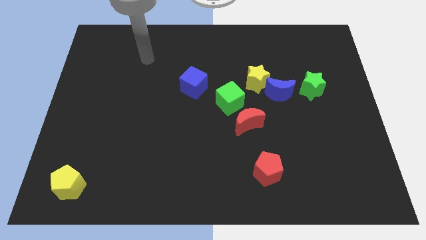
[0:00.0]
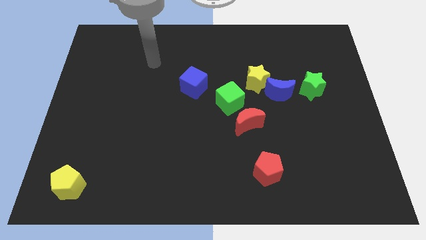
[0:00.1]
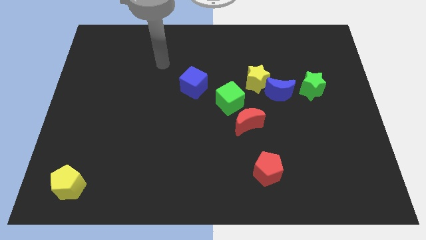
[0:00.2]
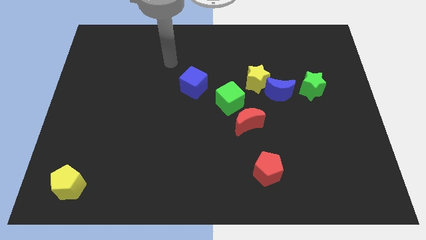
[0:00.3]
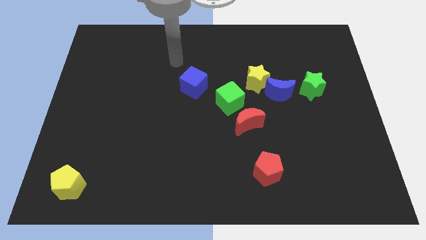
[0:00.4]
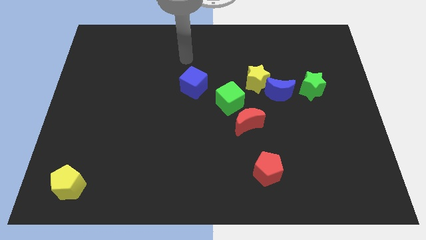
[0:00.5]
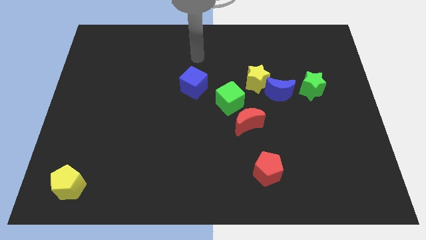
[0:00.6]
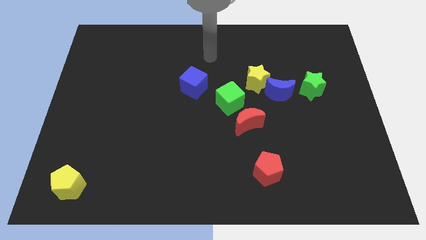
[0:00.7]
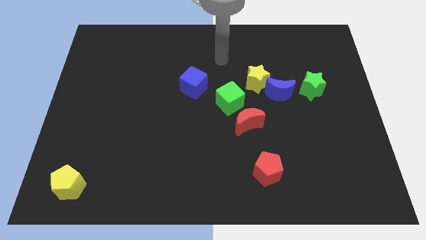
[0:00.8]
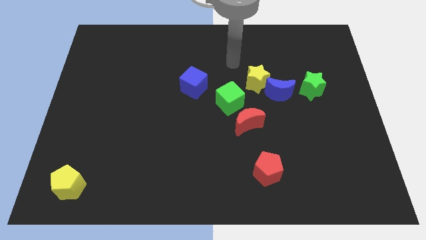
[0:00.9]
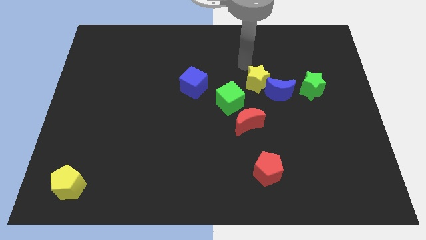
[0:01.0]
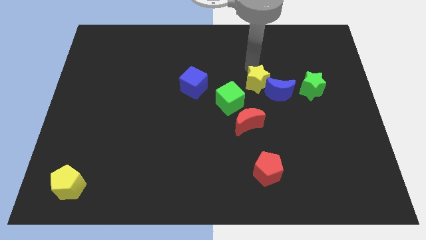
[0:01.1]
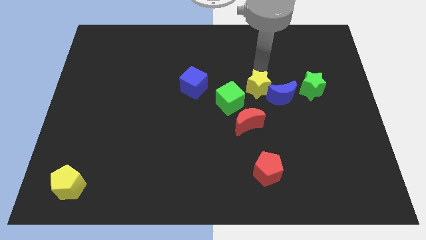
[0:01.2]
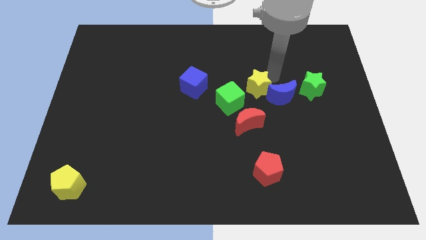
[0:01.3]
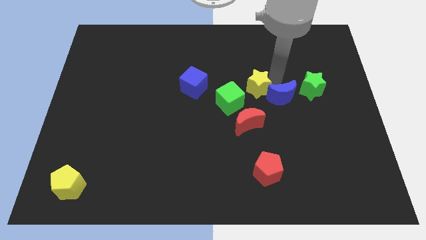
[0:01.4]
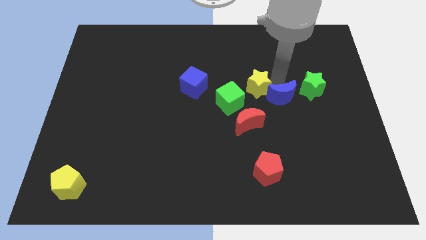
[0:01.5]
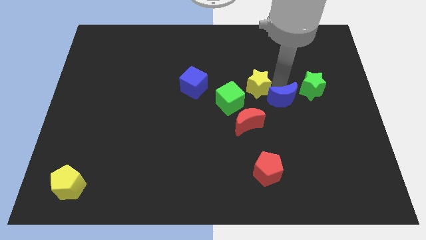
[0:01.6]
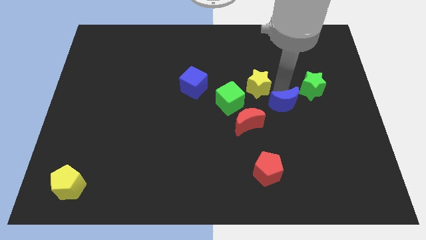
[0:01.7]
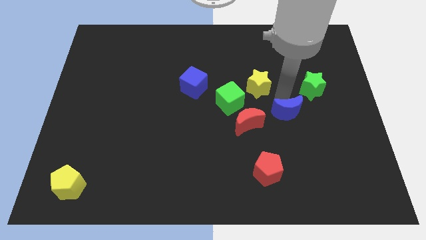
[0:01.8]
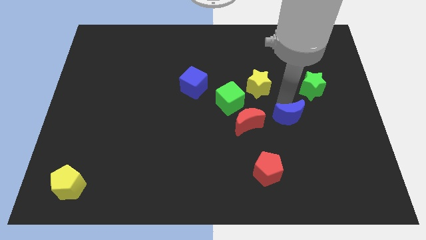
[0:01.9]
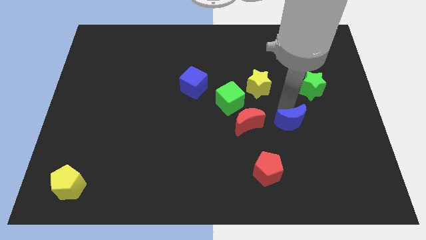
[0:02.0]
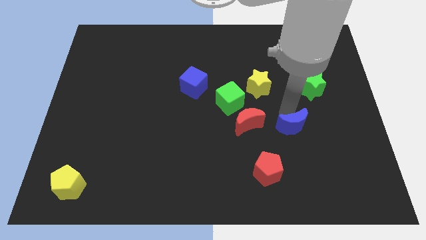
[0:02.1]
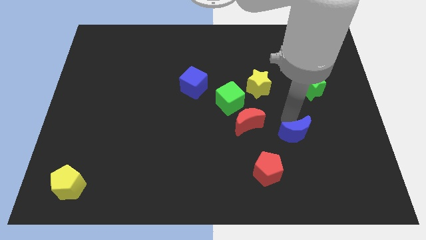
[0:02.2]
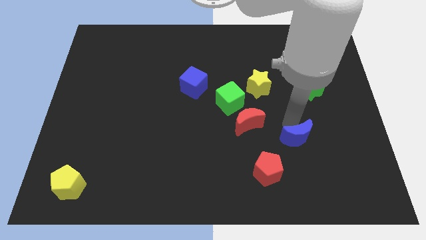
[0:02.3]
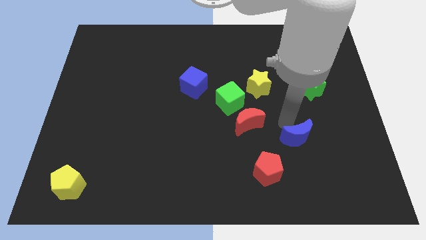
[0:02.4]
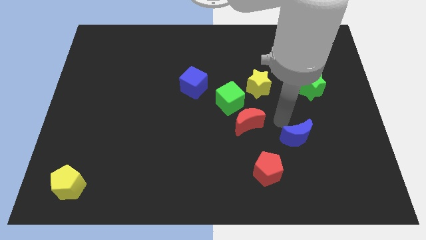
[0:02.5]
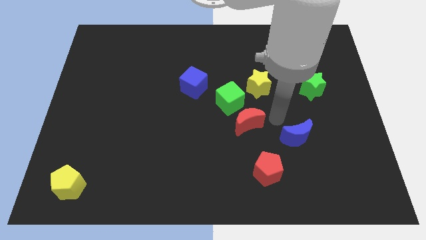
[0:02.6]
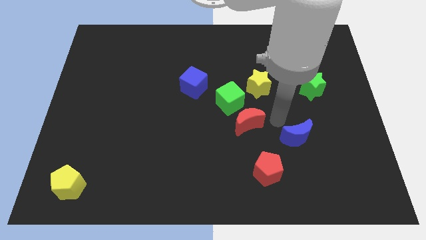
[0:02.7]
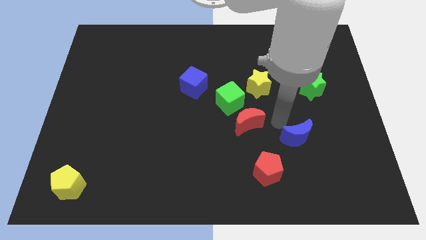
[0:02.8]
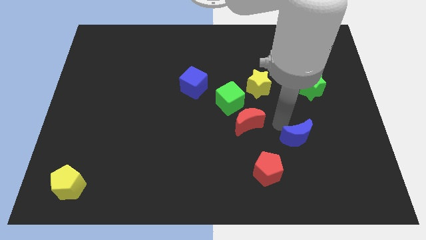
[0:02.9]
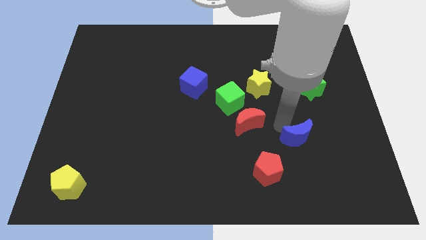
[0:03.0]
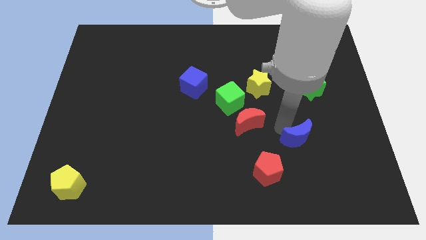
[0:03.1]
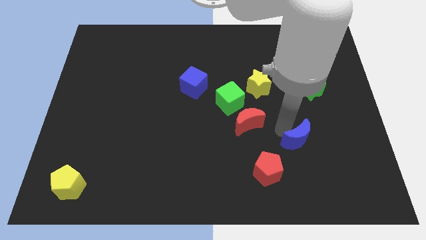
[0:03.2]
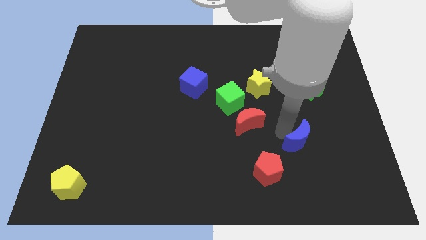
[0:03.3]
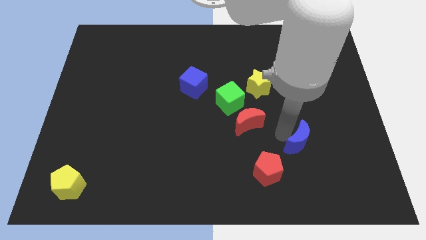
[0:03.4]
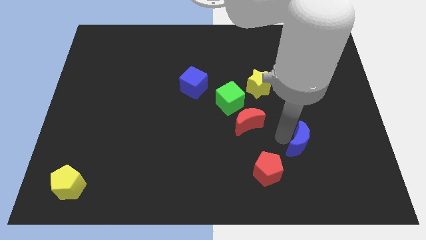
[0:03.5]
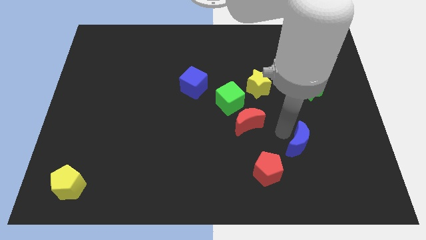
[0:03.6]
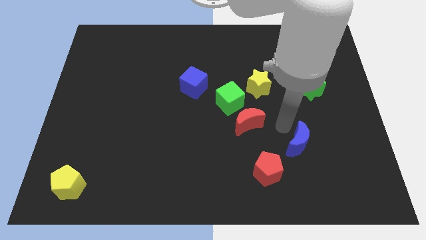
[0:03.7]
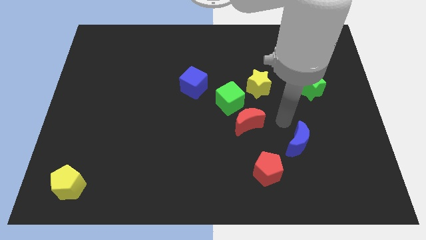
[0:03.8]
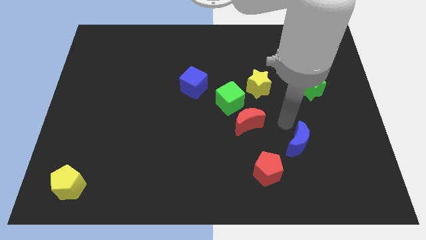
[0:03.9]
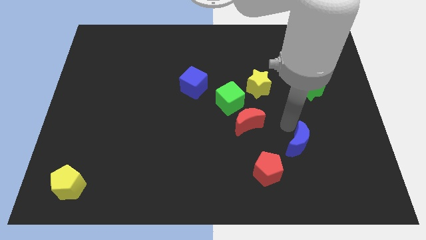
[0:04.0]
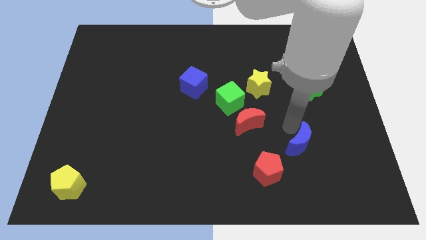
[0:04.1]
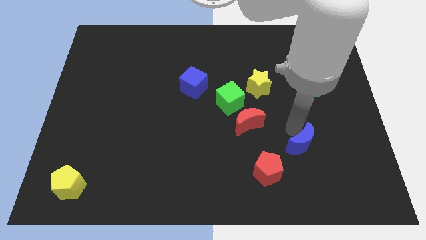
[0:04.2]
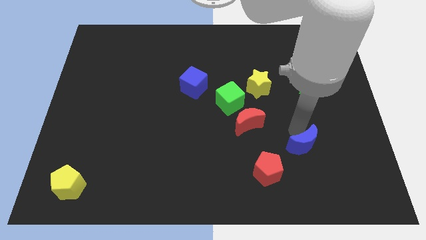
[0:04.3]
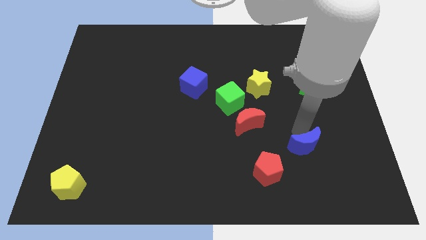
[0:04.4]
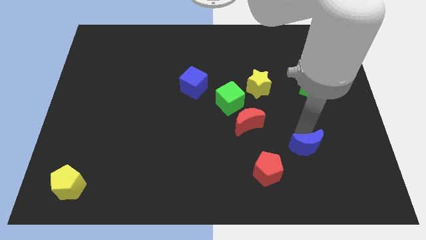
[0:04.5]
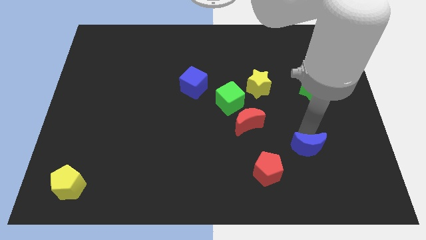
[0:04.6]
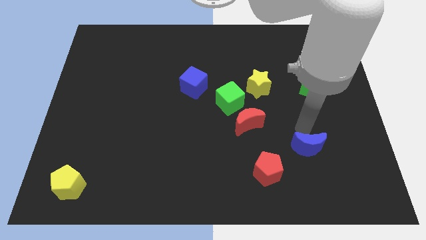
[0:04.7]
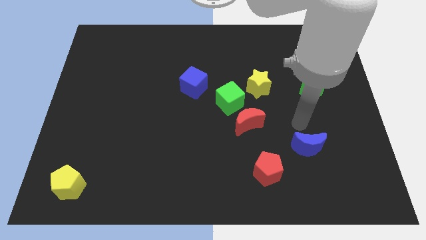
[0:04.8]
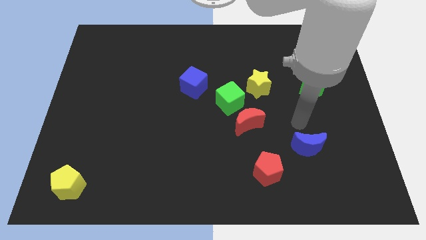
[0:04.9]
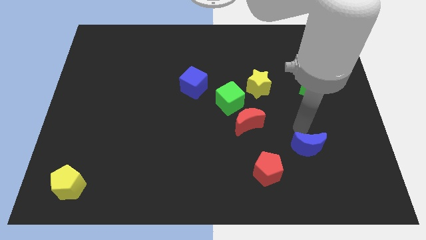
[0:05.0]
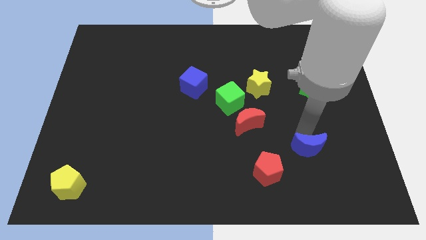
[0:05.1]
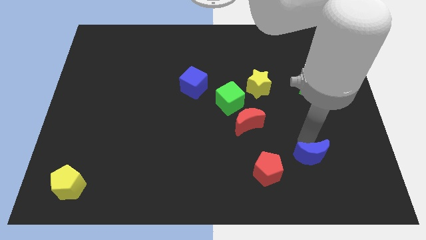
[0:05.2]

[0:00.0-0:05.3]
push the blue moon just right of the red pentagon

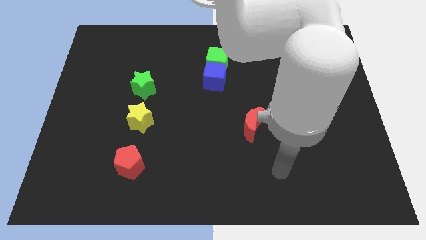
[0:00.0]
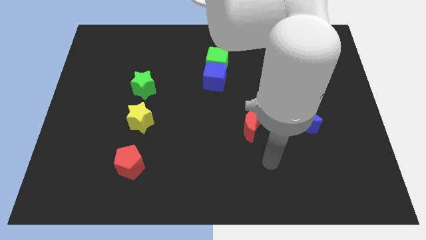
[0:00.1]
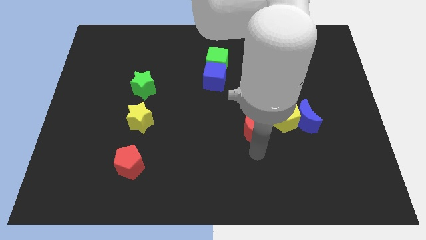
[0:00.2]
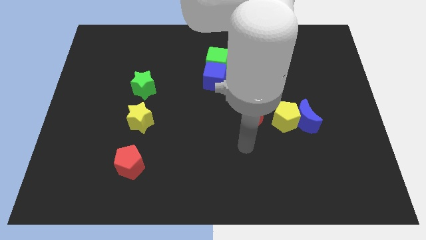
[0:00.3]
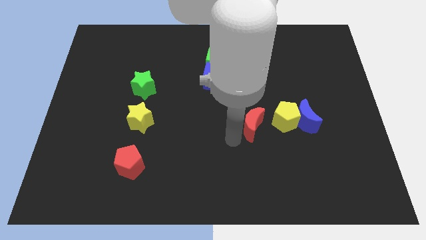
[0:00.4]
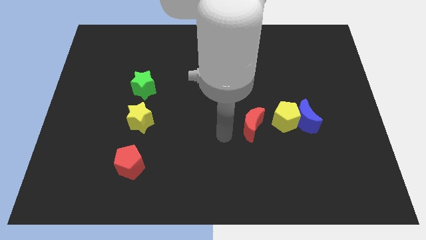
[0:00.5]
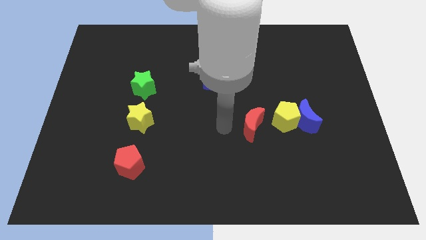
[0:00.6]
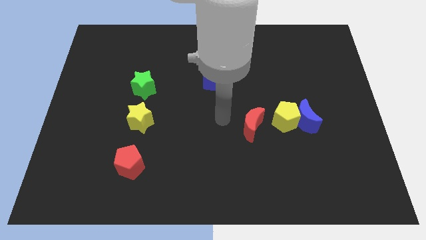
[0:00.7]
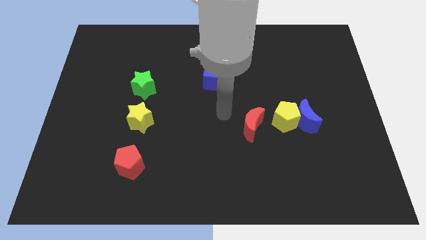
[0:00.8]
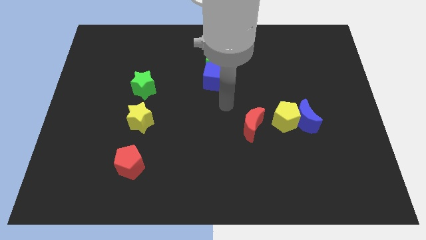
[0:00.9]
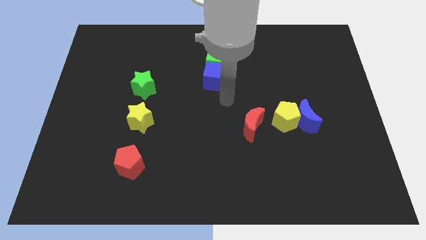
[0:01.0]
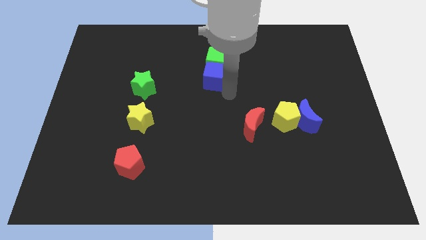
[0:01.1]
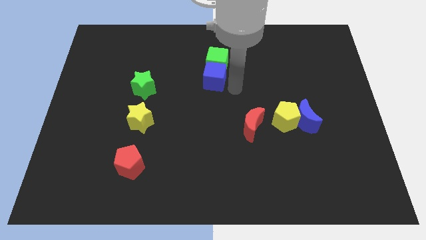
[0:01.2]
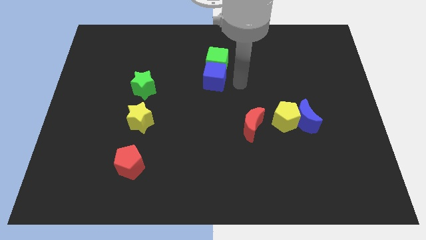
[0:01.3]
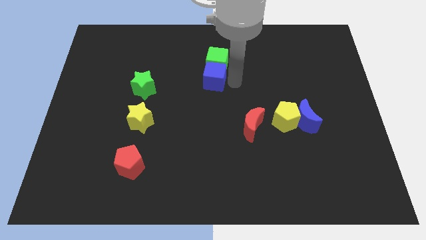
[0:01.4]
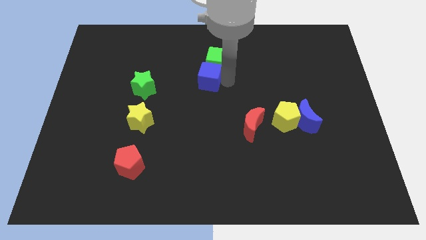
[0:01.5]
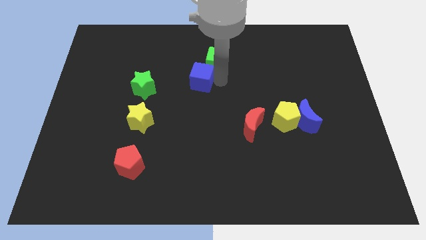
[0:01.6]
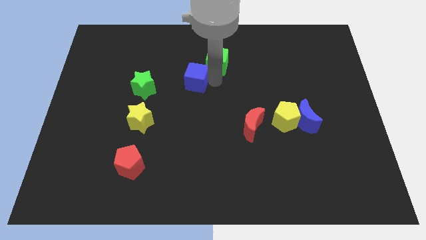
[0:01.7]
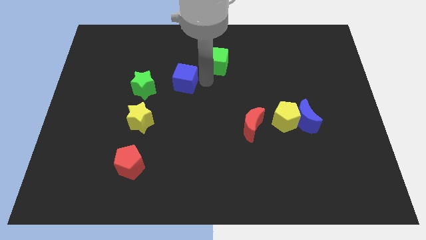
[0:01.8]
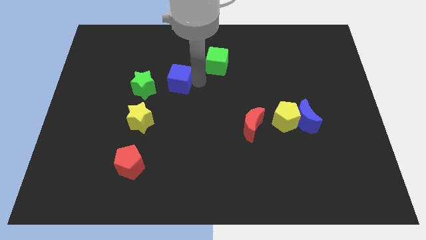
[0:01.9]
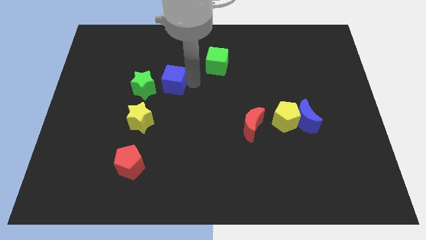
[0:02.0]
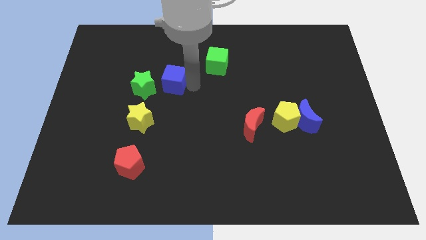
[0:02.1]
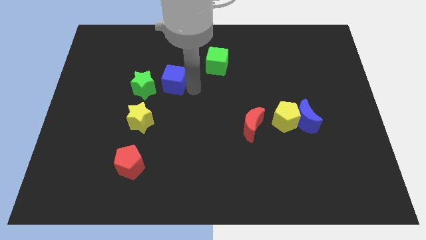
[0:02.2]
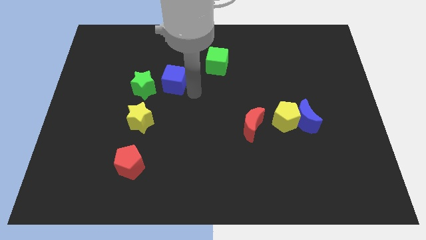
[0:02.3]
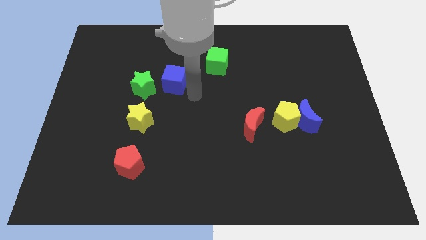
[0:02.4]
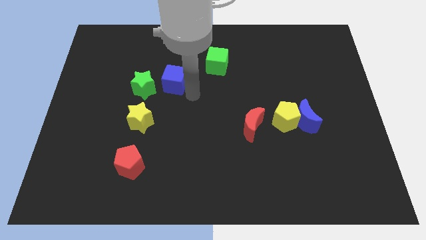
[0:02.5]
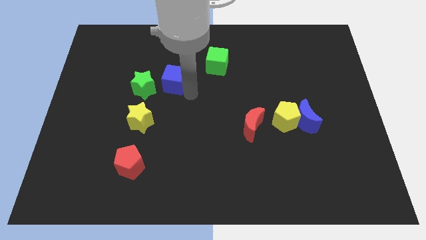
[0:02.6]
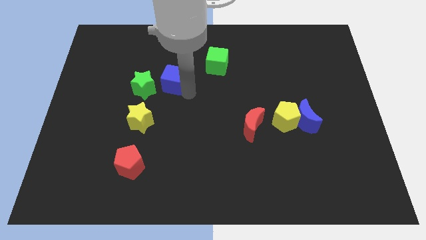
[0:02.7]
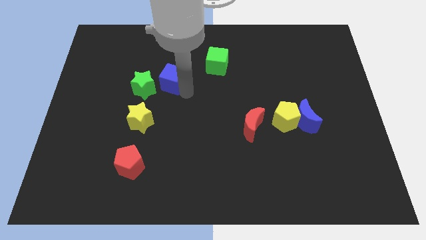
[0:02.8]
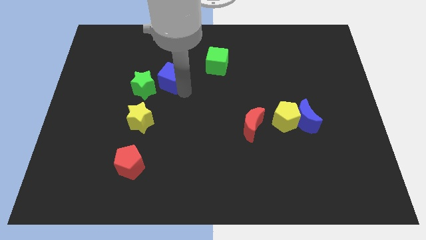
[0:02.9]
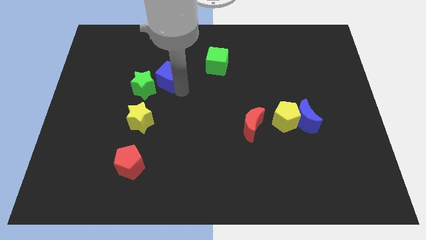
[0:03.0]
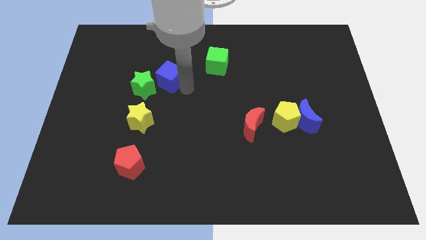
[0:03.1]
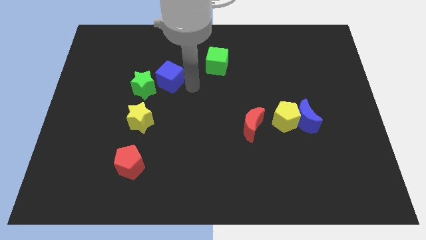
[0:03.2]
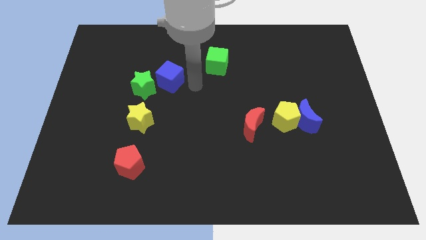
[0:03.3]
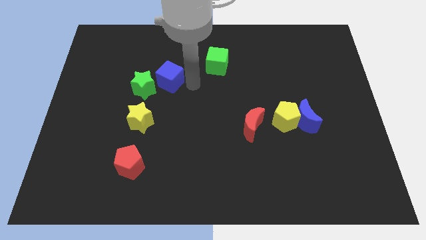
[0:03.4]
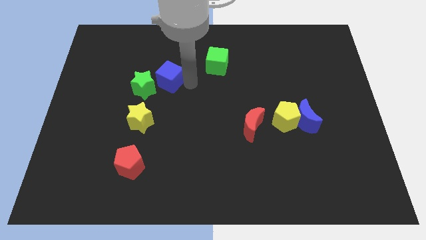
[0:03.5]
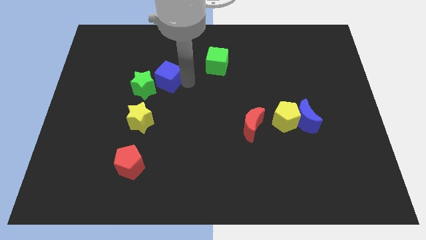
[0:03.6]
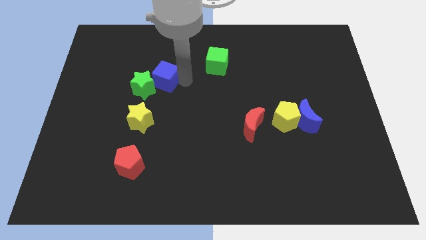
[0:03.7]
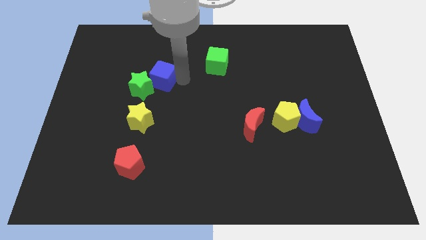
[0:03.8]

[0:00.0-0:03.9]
push the blue cube to the top side of the yellow star
